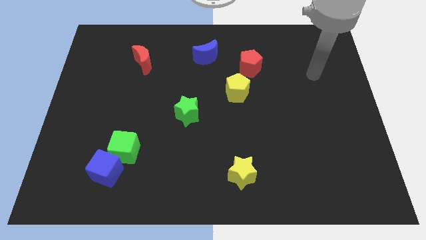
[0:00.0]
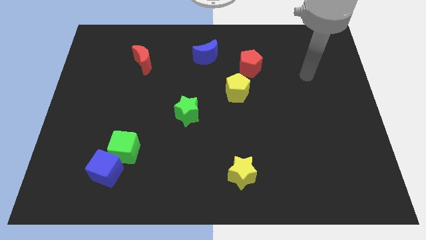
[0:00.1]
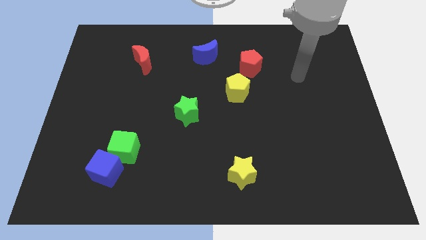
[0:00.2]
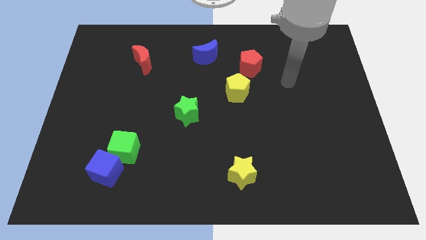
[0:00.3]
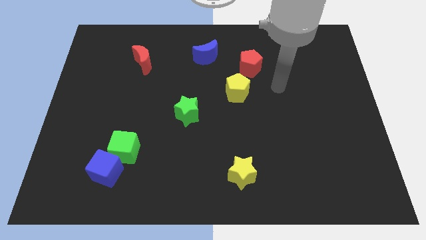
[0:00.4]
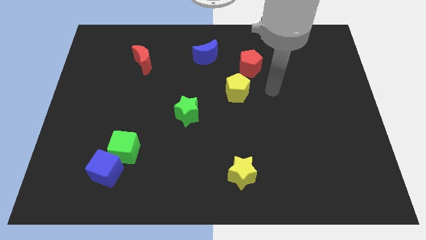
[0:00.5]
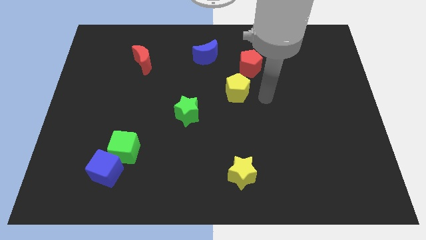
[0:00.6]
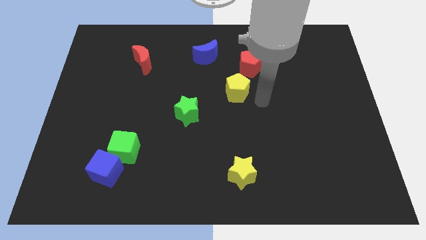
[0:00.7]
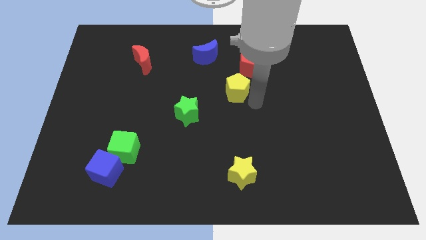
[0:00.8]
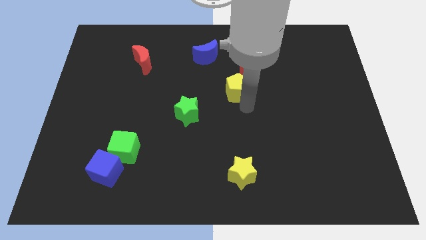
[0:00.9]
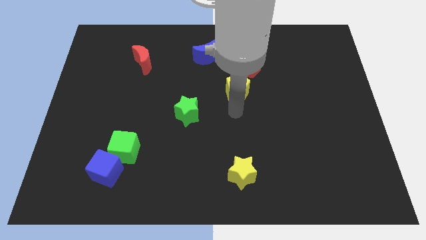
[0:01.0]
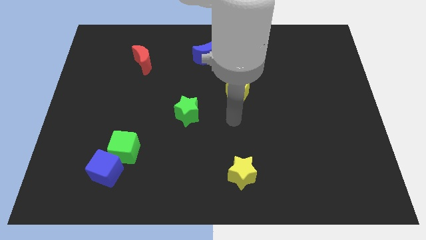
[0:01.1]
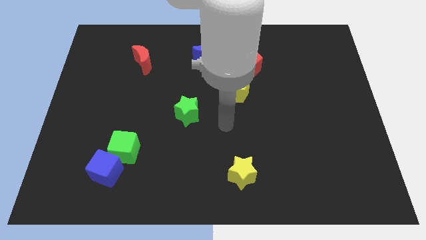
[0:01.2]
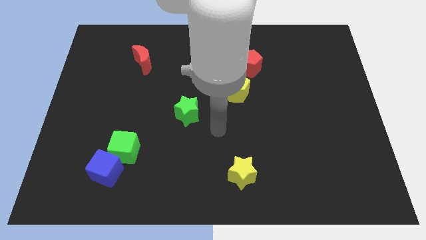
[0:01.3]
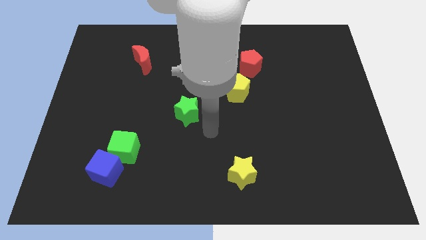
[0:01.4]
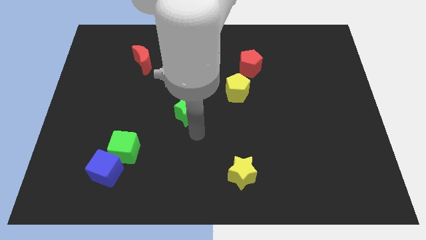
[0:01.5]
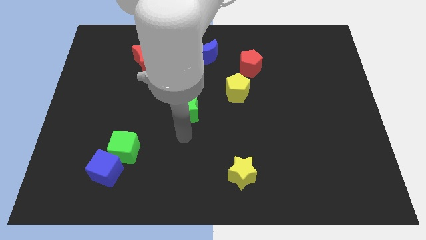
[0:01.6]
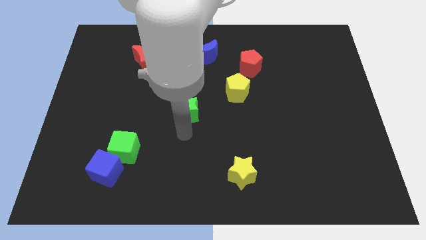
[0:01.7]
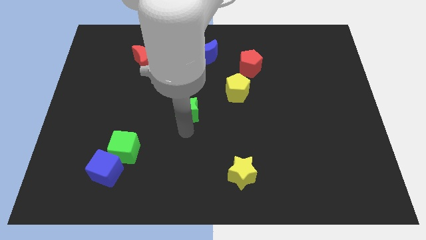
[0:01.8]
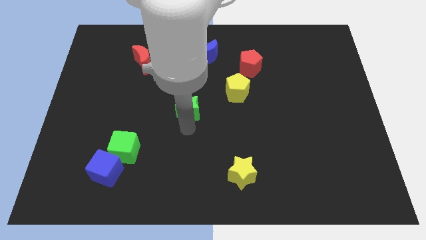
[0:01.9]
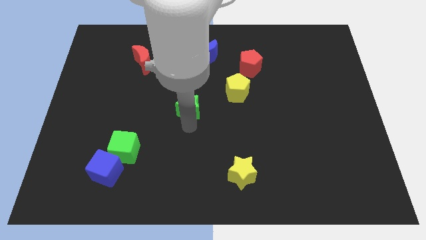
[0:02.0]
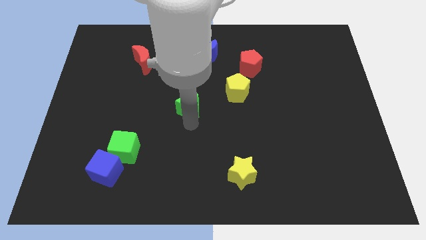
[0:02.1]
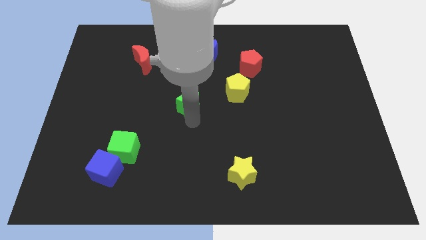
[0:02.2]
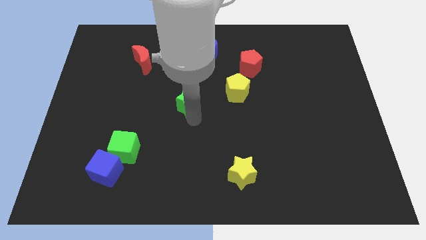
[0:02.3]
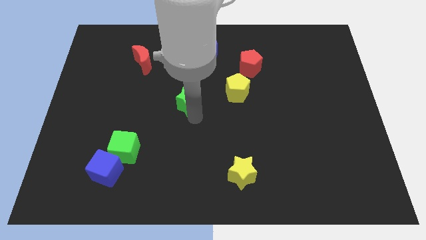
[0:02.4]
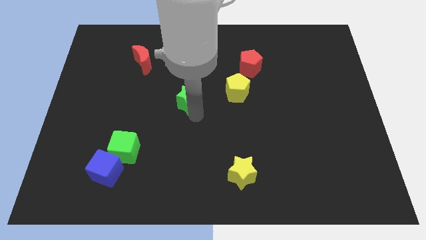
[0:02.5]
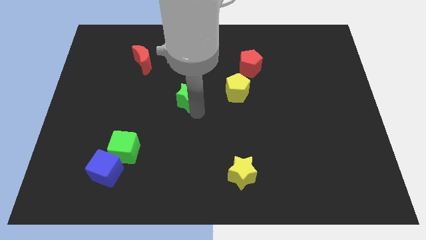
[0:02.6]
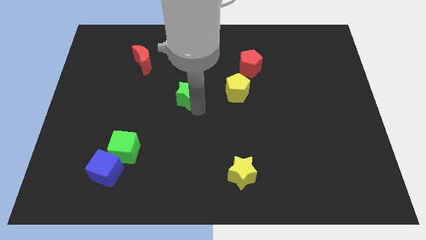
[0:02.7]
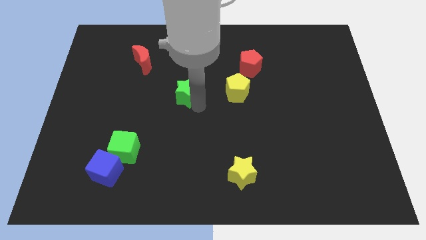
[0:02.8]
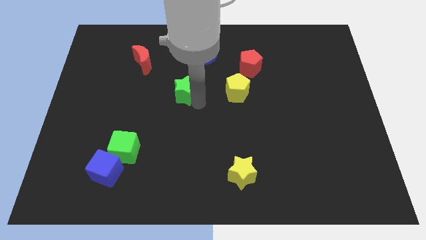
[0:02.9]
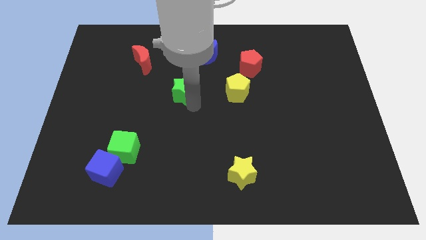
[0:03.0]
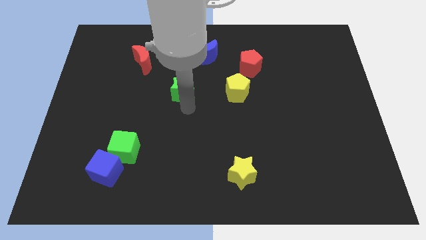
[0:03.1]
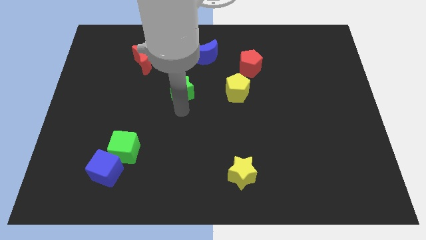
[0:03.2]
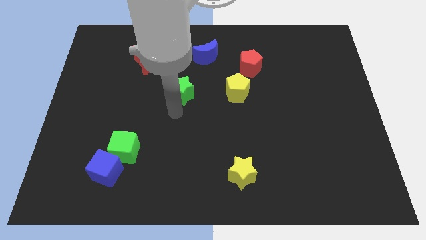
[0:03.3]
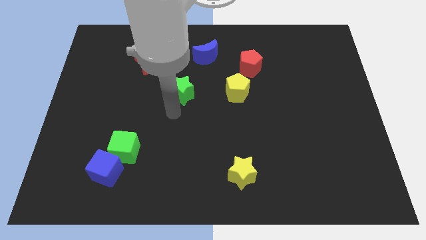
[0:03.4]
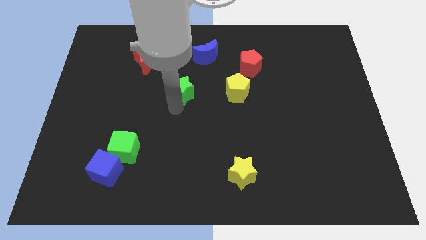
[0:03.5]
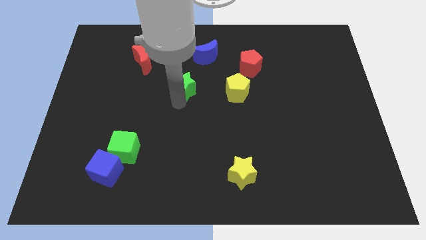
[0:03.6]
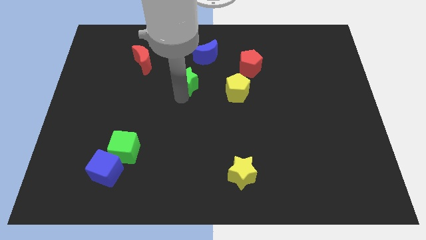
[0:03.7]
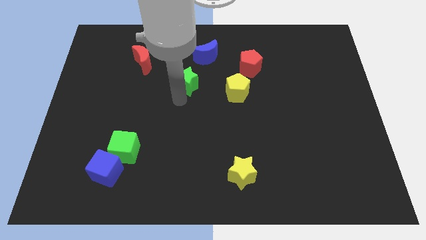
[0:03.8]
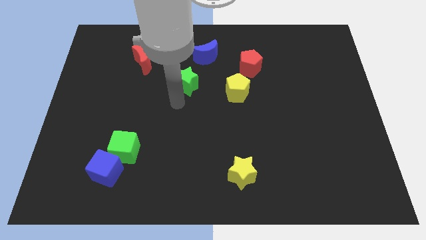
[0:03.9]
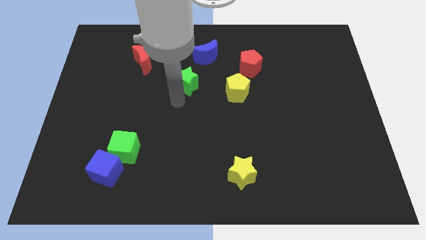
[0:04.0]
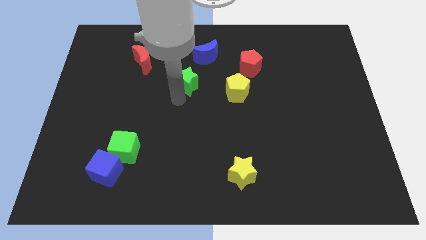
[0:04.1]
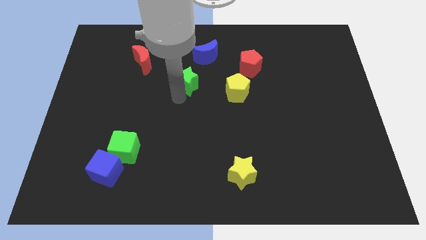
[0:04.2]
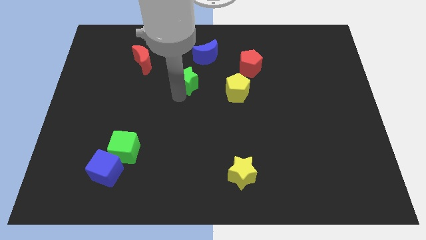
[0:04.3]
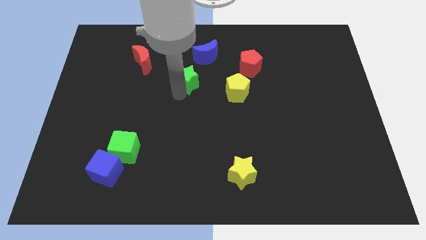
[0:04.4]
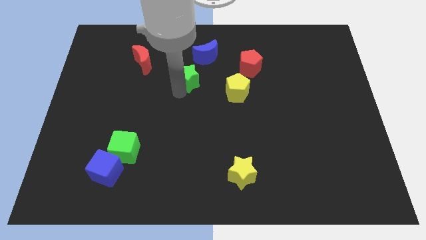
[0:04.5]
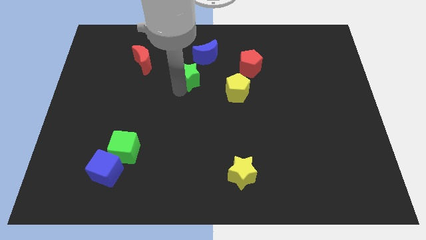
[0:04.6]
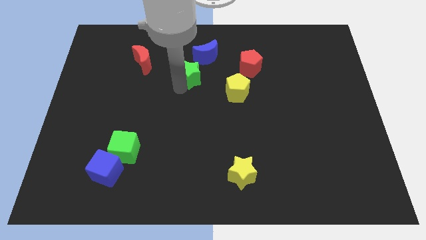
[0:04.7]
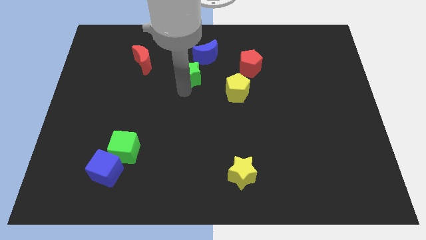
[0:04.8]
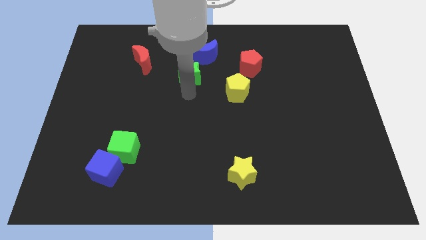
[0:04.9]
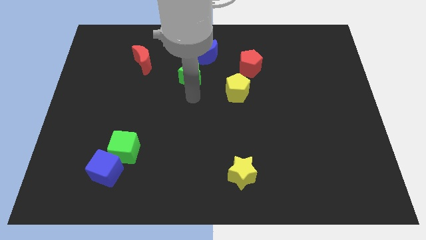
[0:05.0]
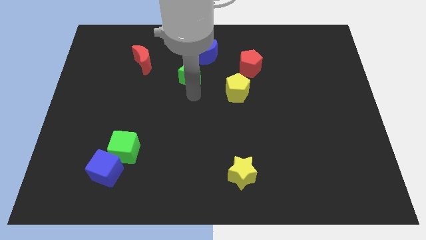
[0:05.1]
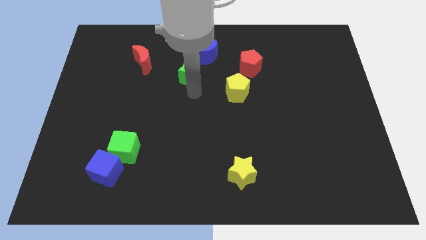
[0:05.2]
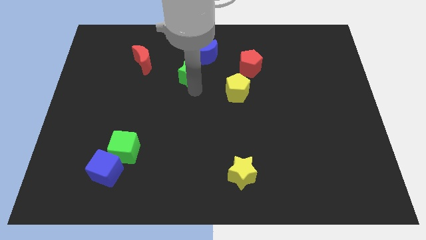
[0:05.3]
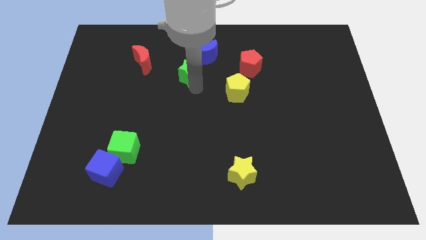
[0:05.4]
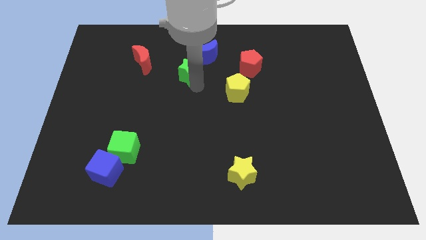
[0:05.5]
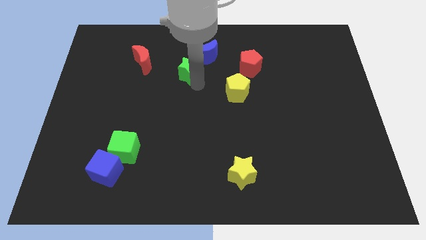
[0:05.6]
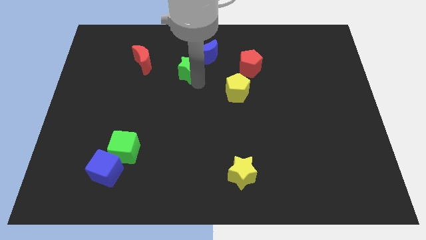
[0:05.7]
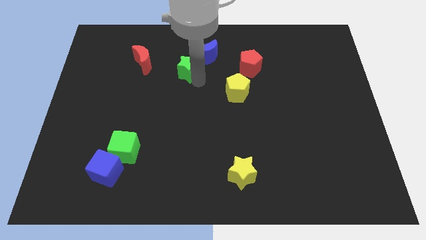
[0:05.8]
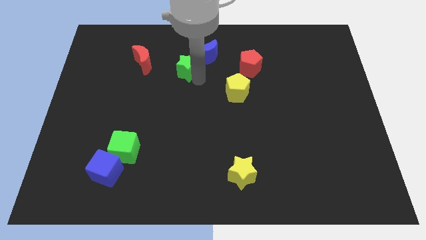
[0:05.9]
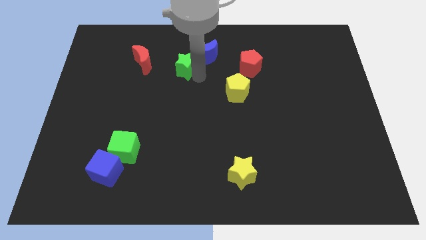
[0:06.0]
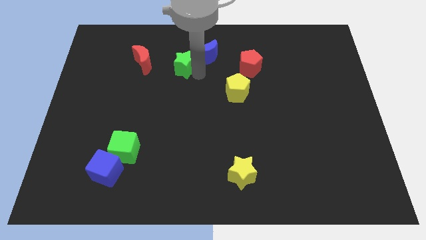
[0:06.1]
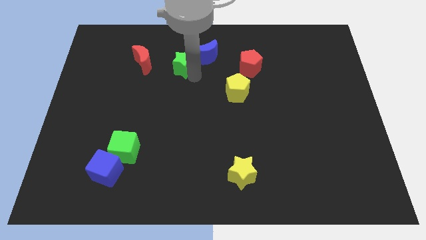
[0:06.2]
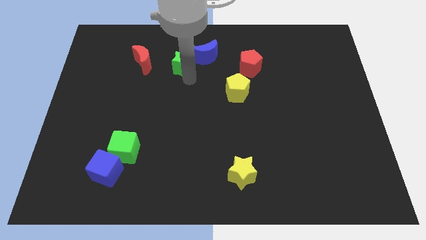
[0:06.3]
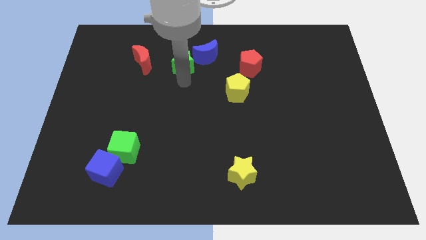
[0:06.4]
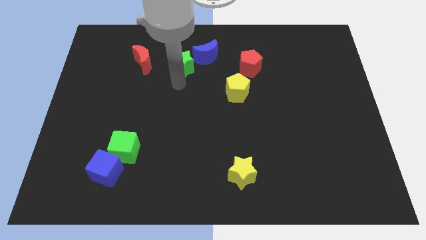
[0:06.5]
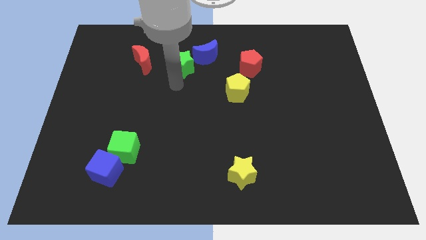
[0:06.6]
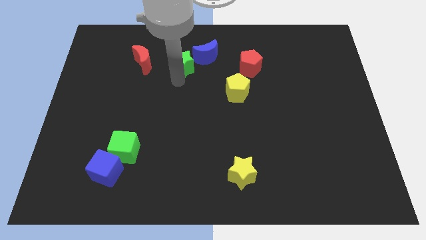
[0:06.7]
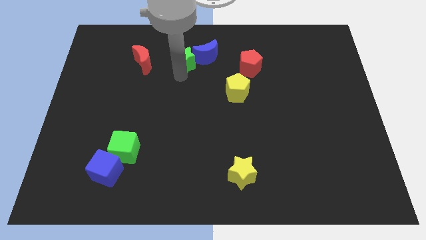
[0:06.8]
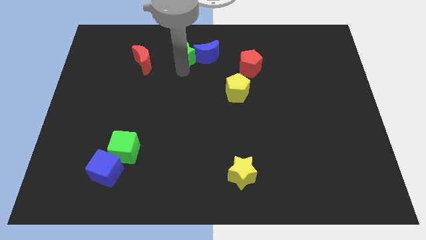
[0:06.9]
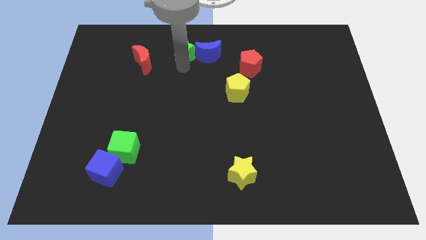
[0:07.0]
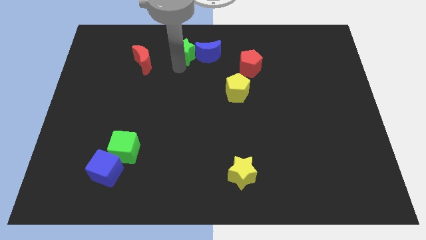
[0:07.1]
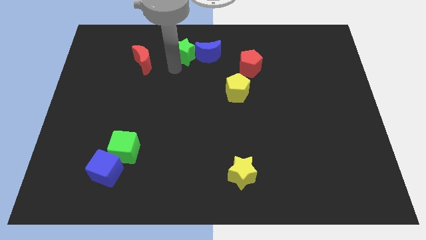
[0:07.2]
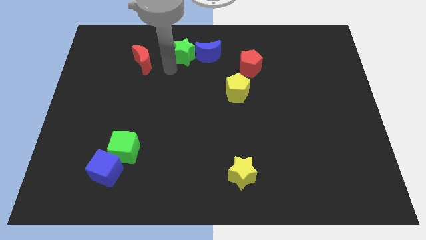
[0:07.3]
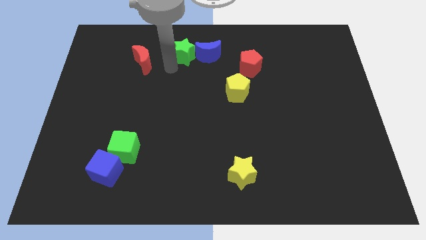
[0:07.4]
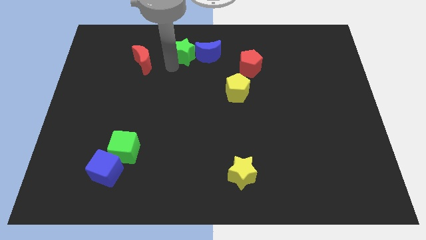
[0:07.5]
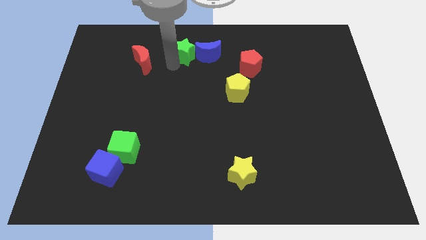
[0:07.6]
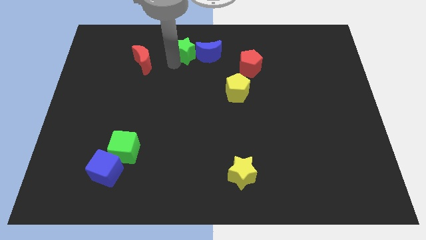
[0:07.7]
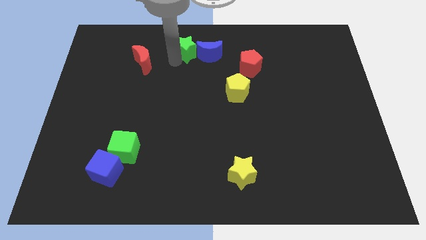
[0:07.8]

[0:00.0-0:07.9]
slide the green star to the towards your base
